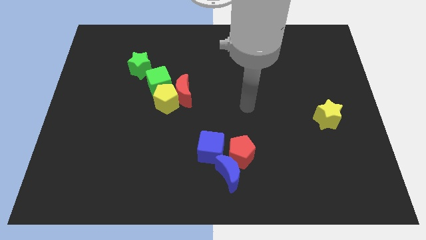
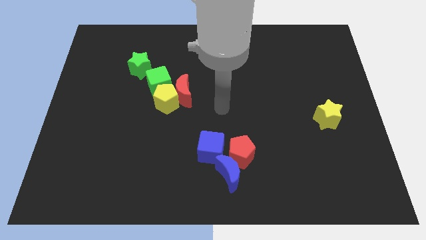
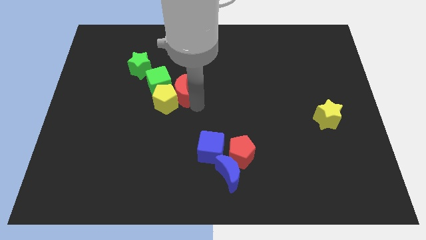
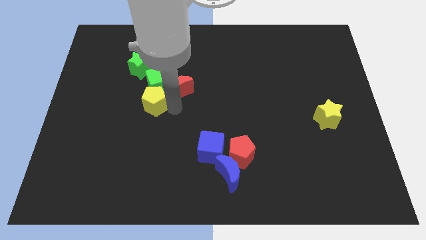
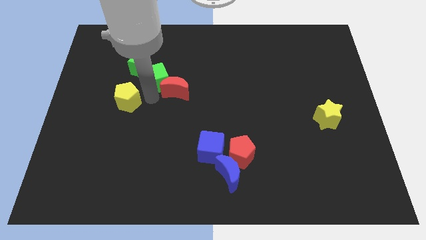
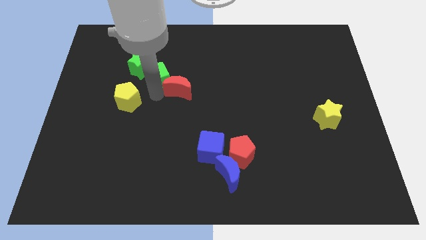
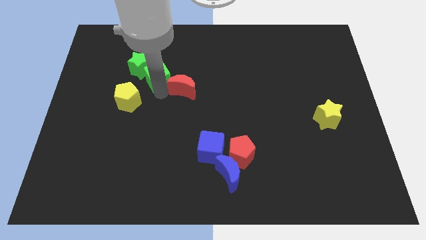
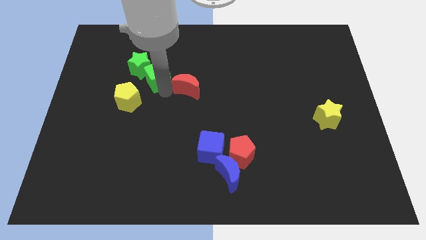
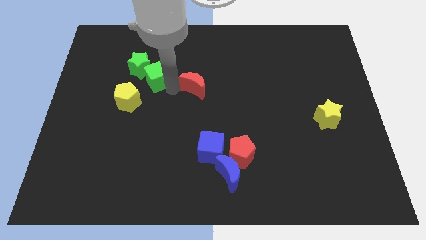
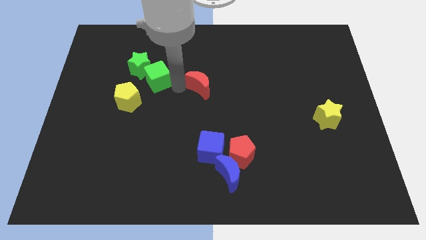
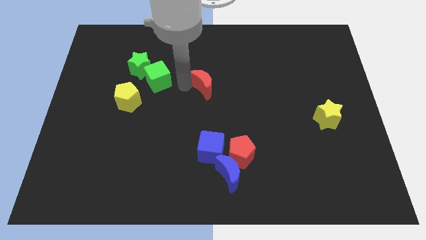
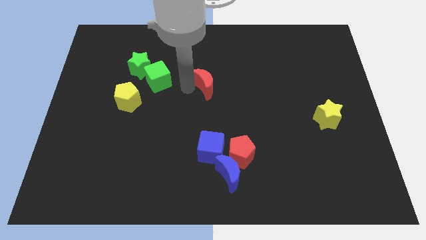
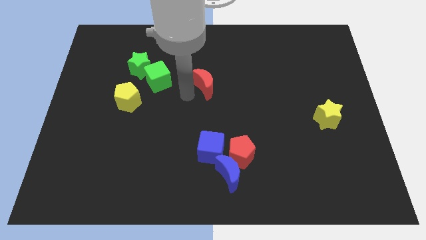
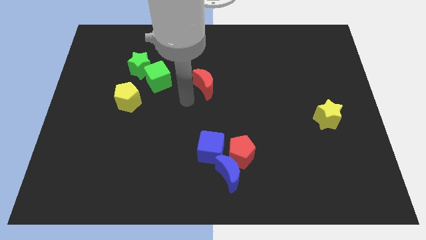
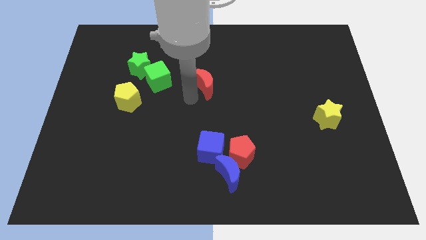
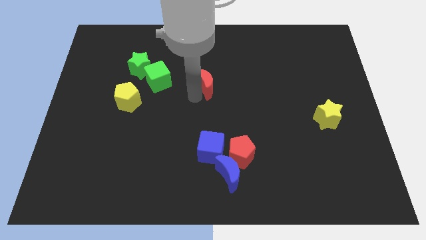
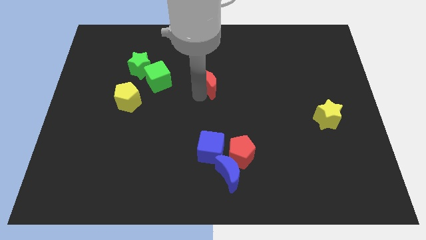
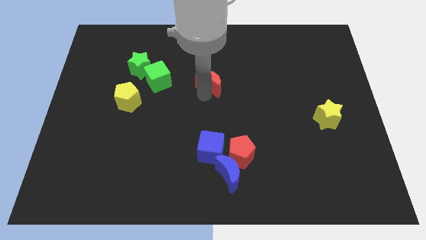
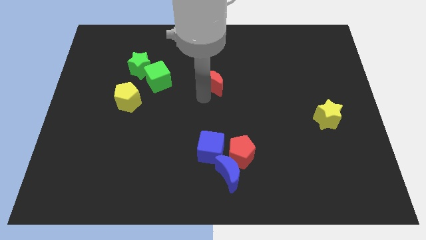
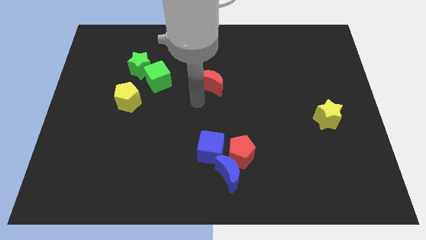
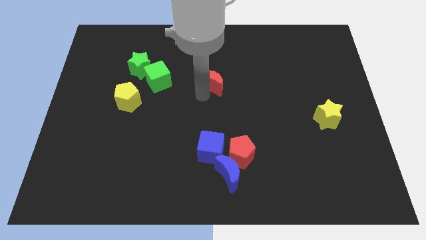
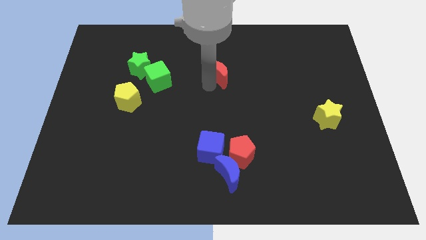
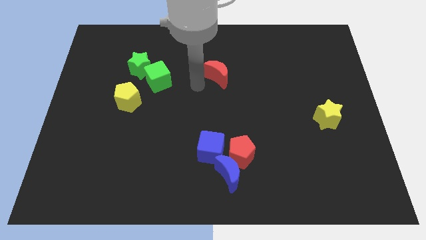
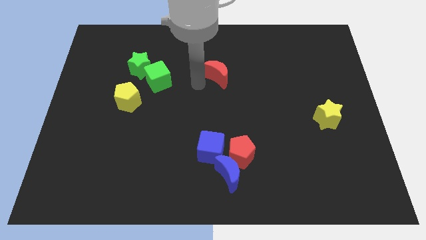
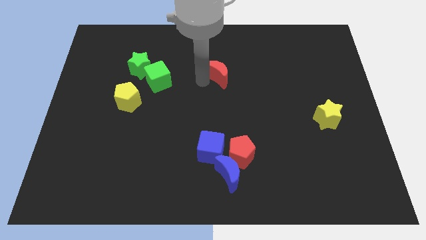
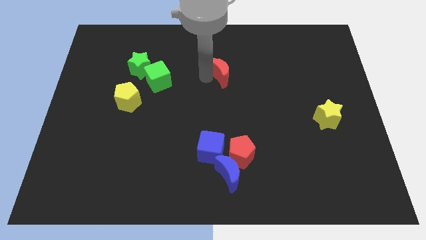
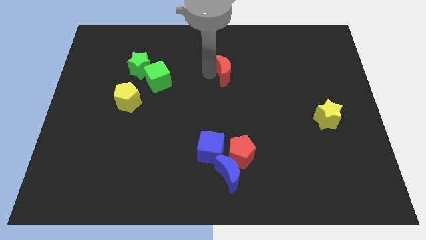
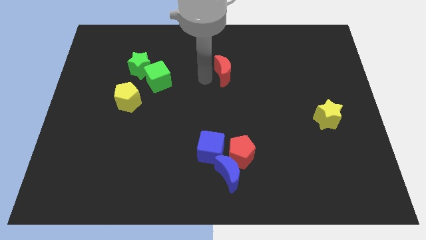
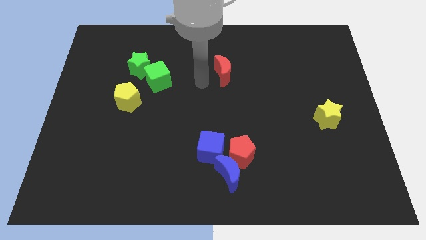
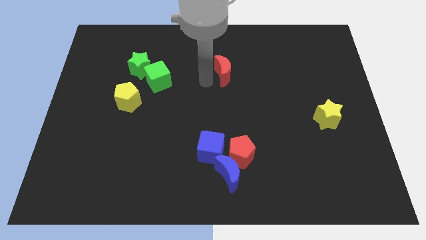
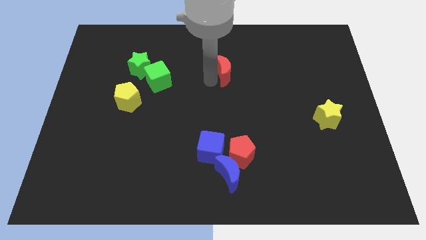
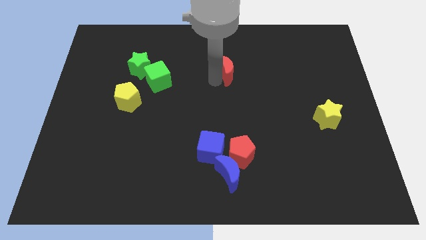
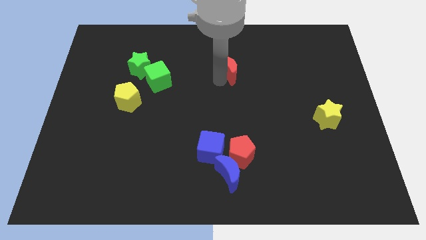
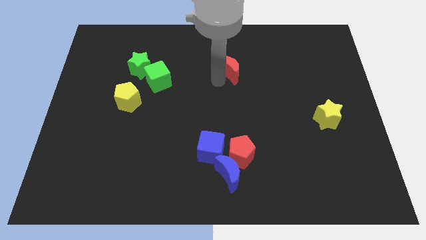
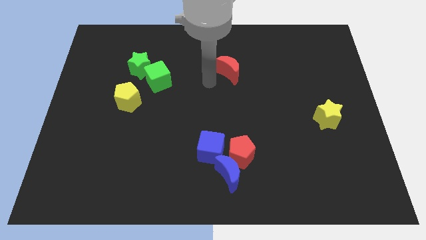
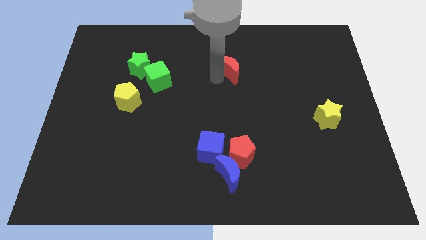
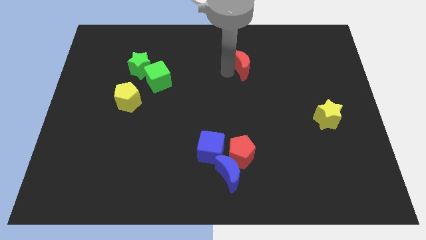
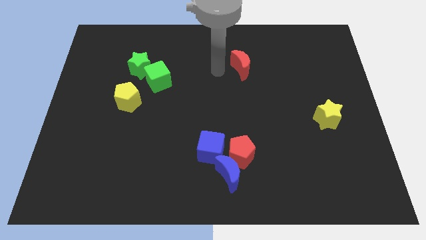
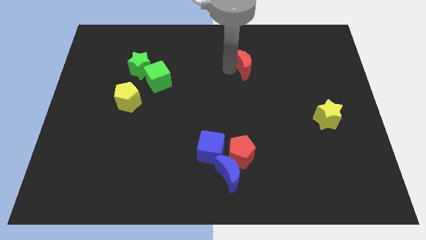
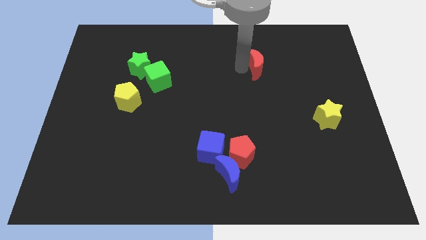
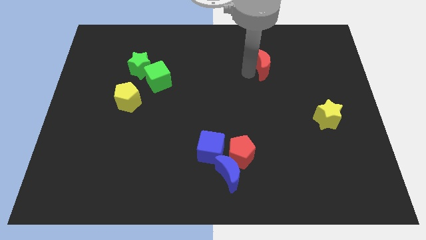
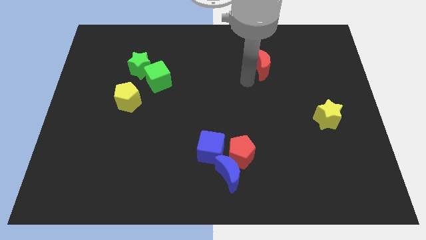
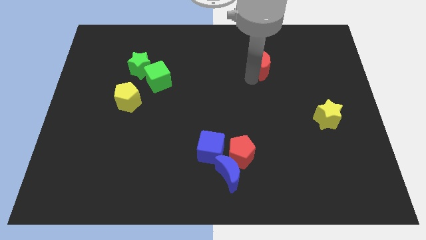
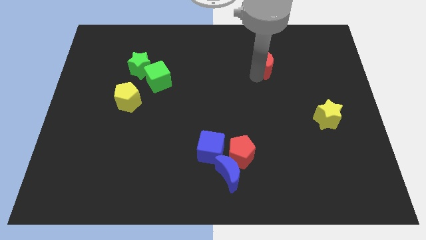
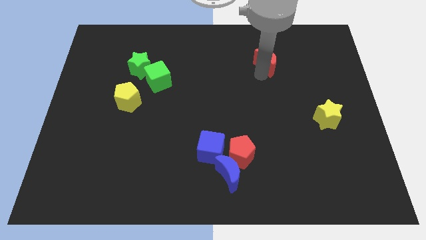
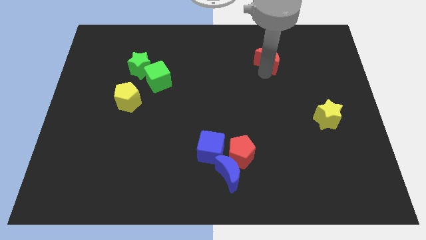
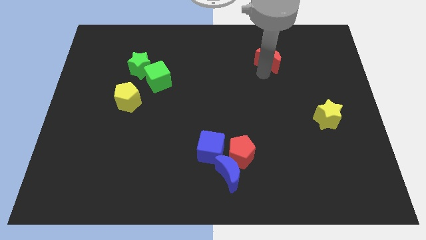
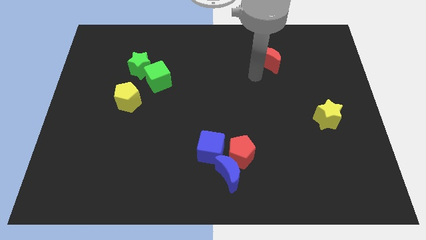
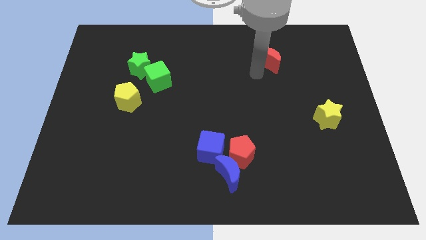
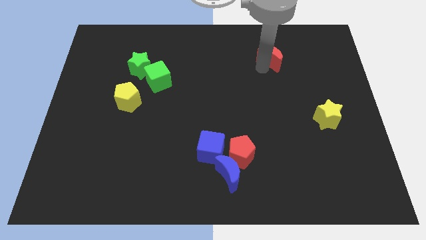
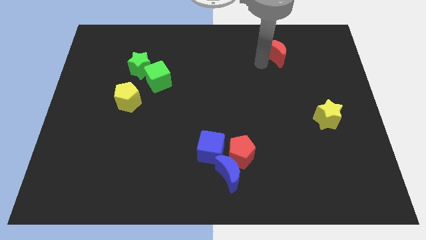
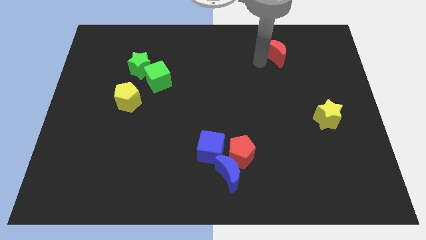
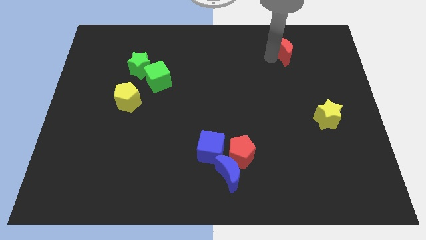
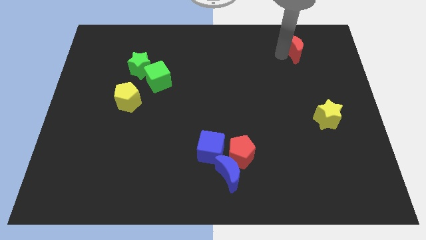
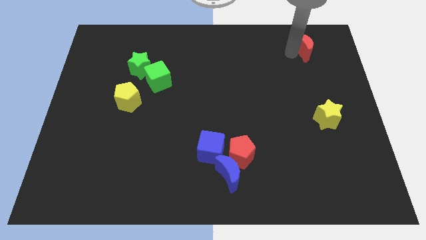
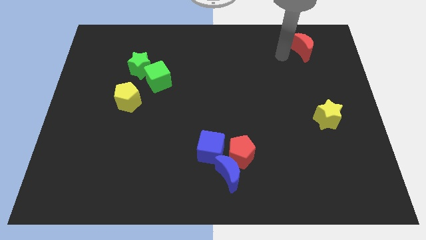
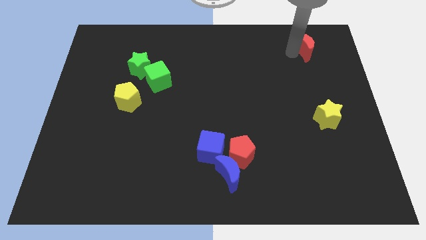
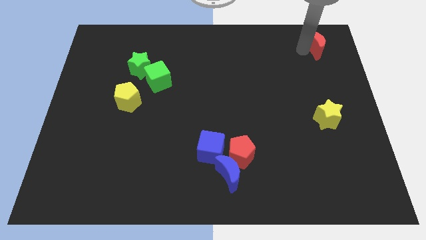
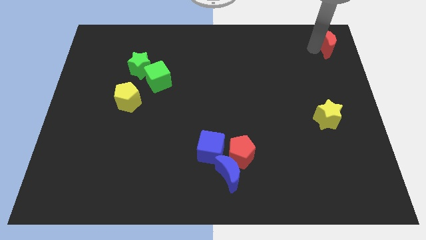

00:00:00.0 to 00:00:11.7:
move the red moon to the top right of the board
